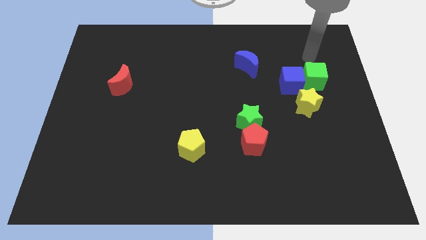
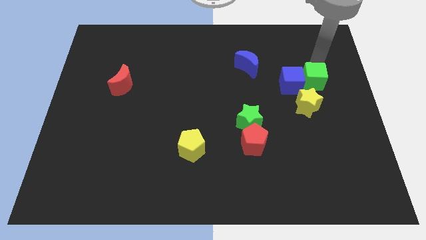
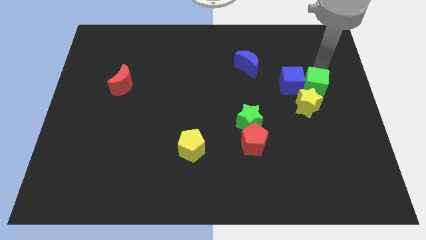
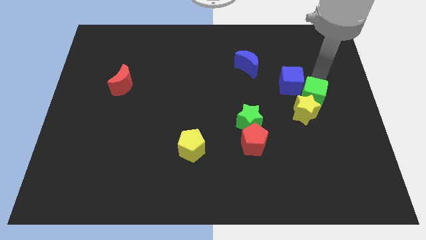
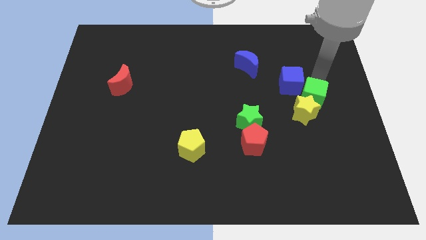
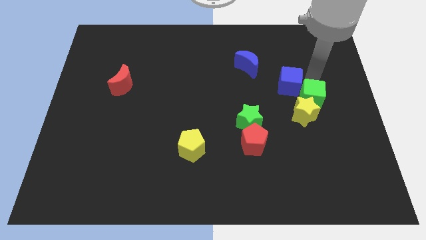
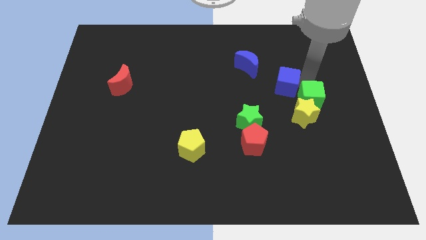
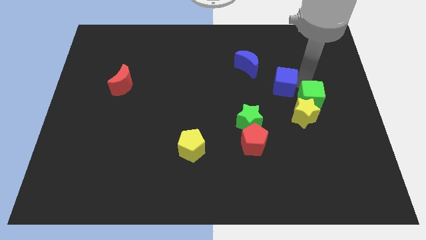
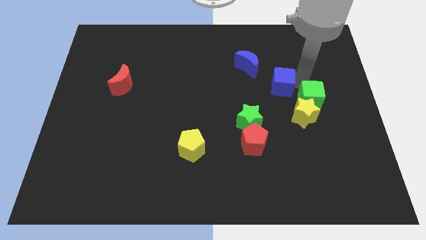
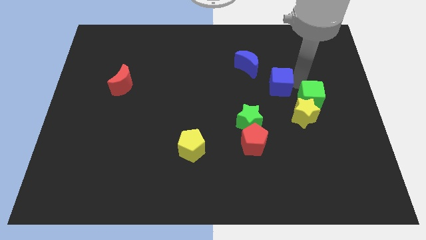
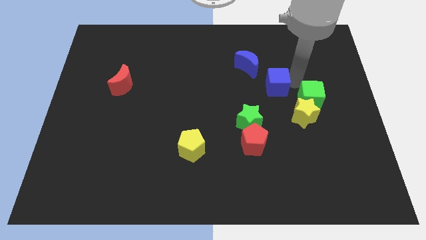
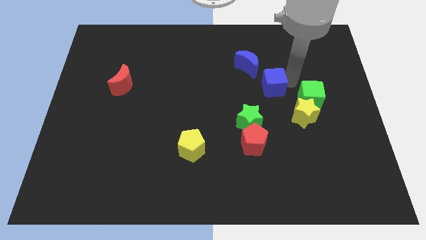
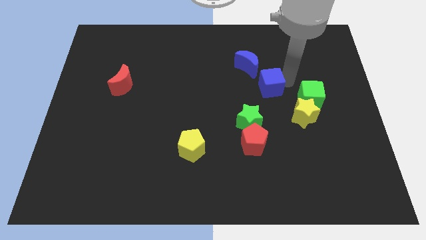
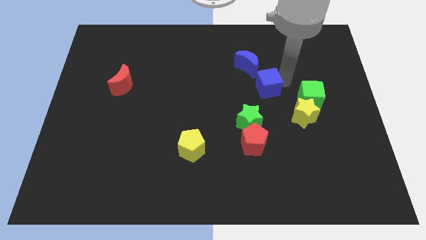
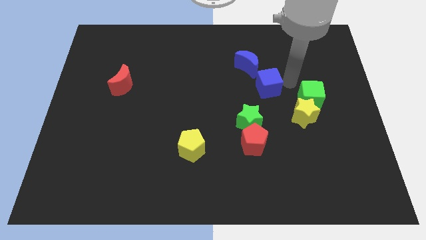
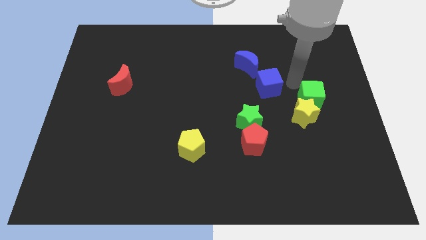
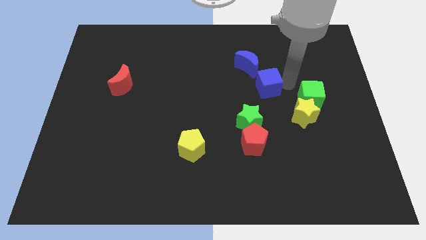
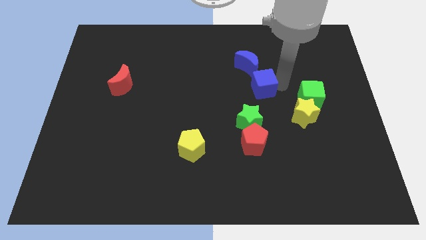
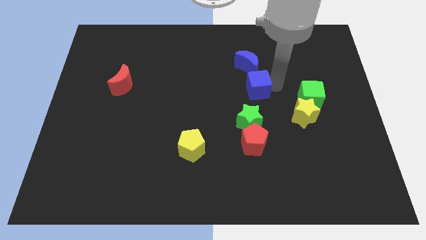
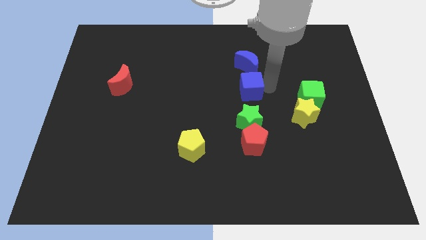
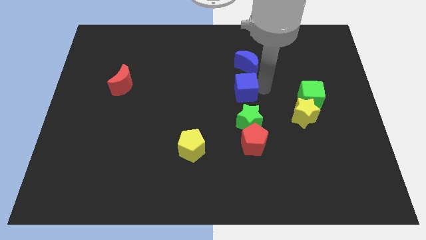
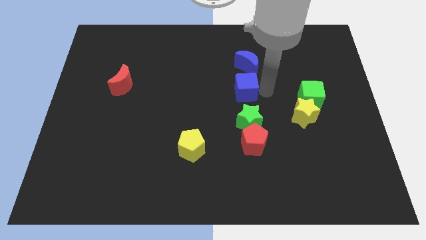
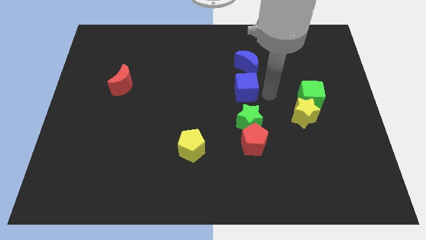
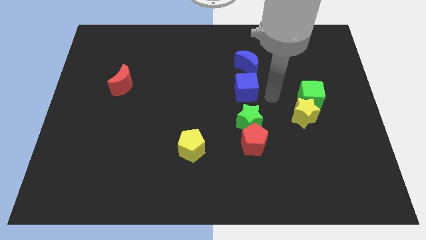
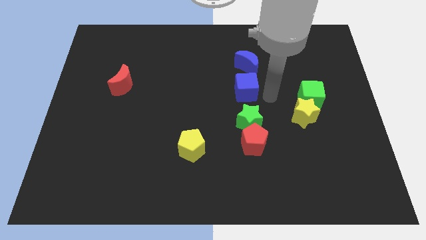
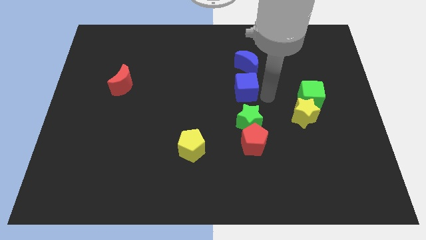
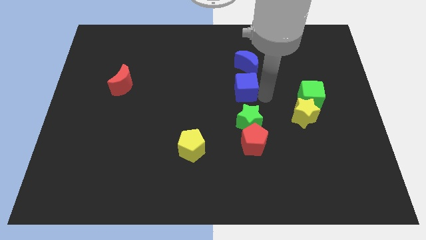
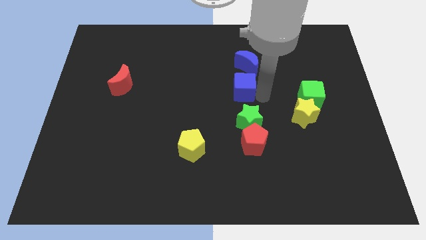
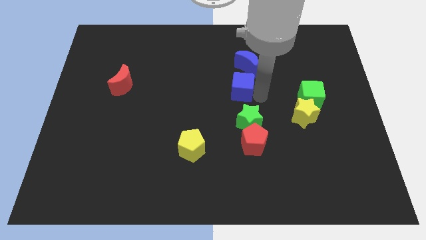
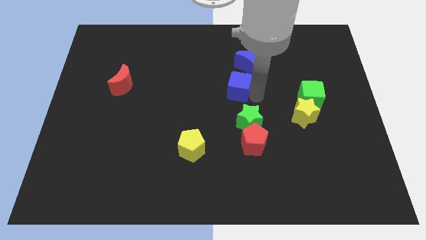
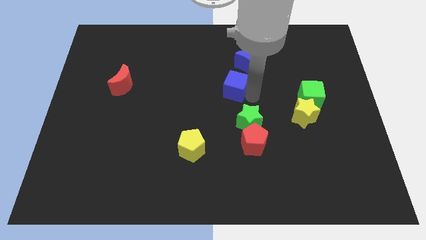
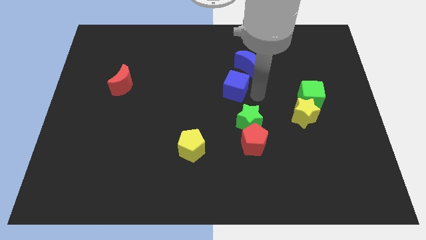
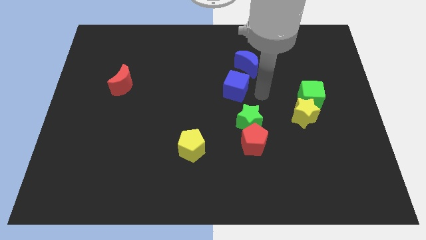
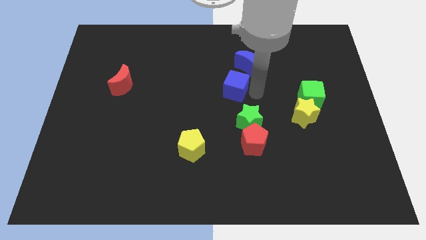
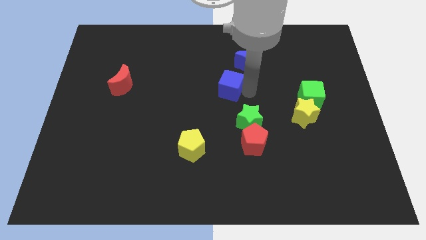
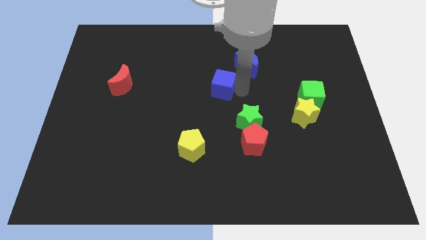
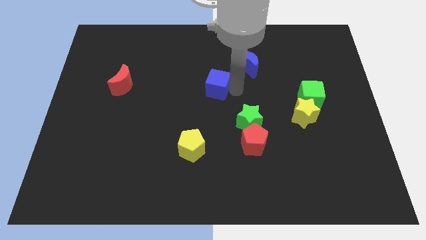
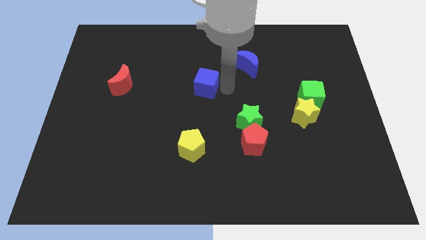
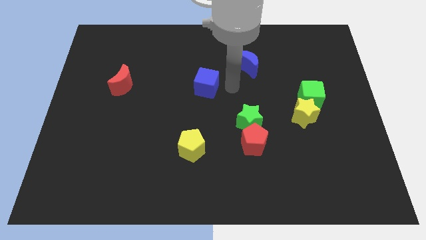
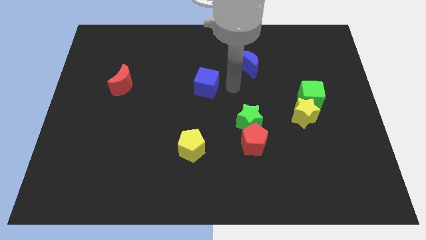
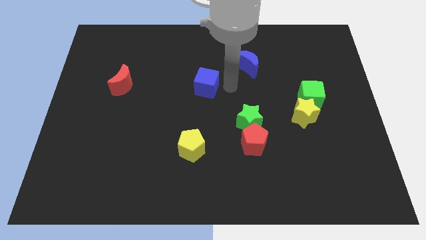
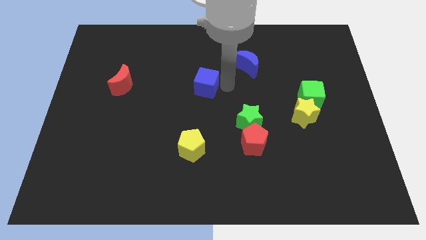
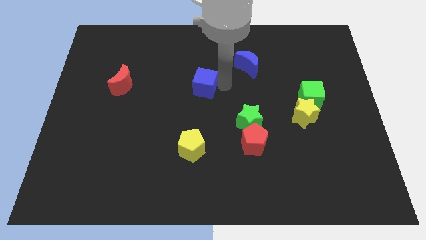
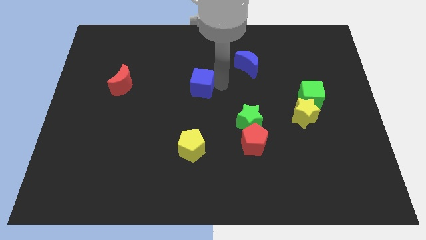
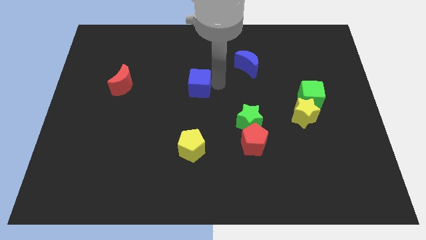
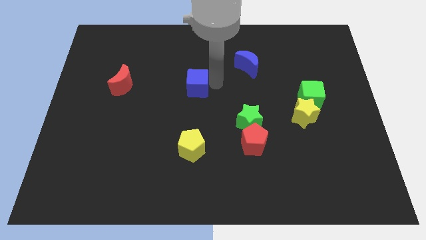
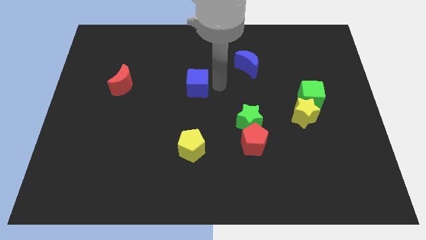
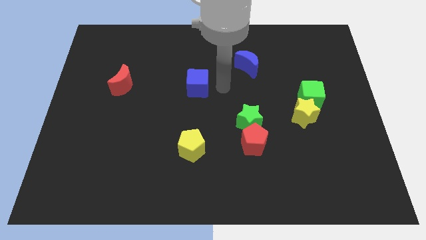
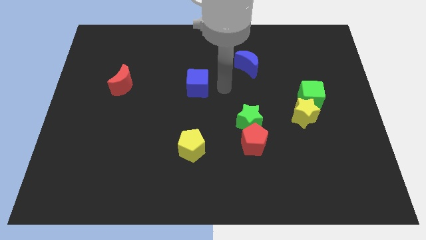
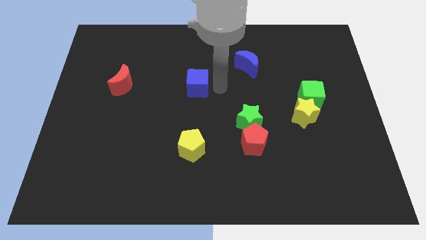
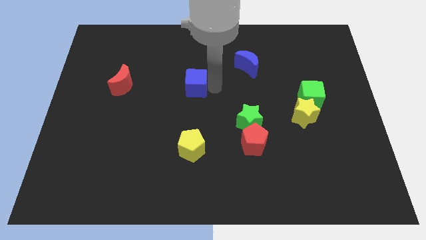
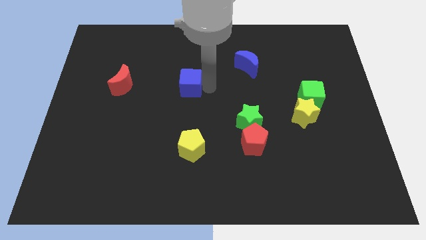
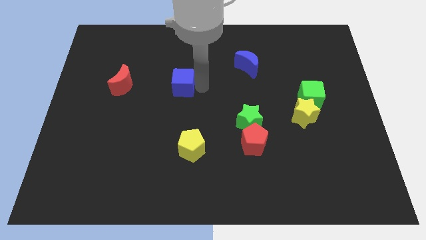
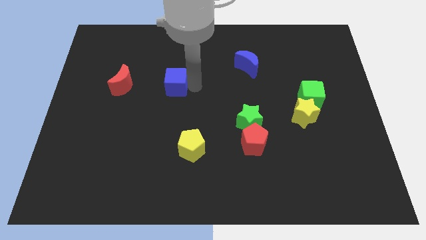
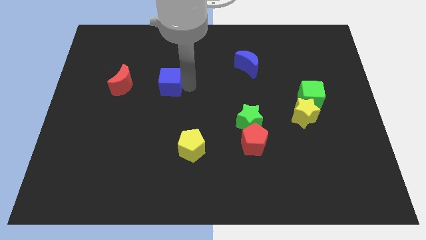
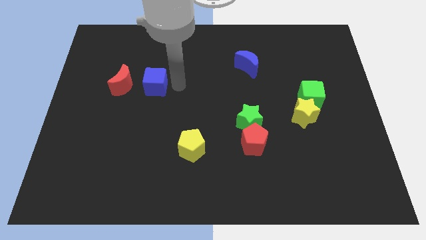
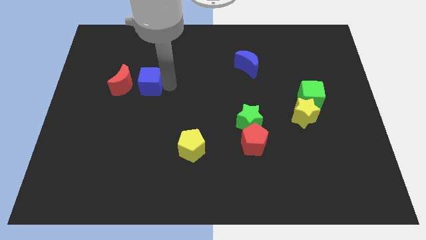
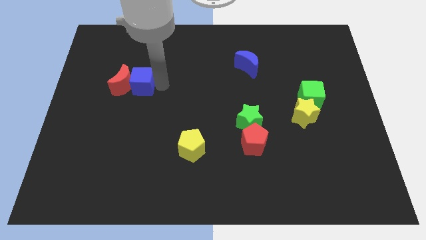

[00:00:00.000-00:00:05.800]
put the blue cube close to the red moon
